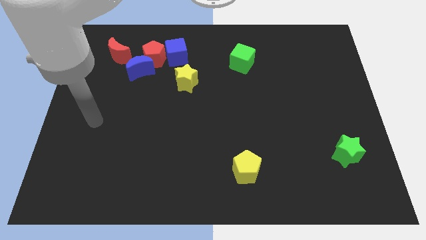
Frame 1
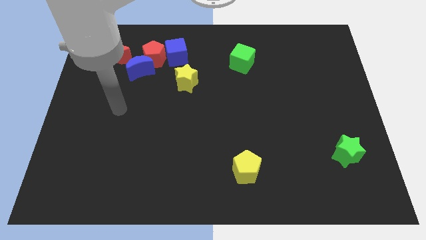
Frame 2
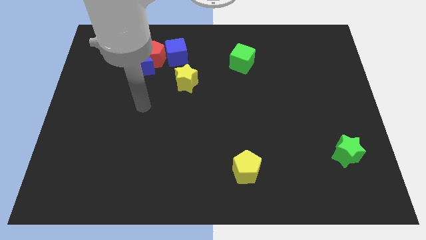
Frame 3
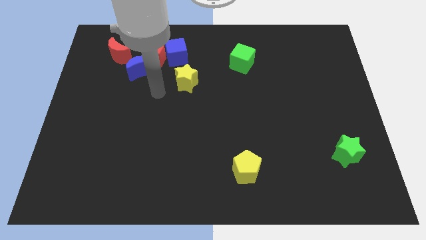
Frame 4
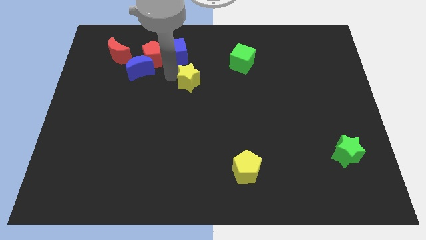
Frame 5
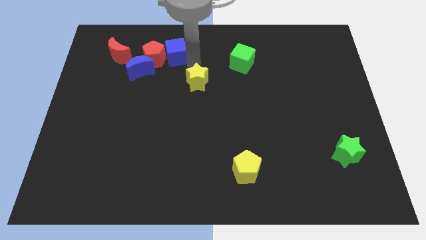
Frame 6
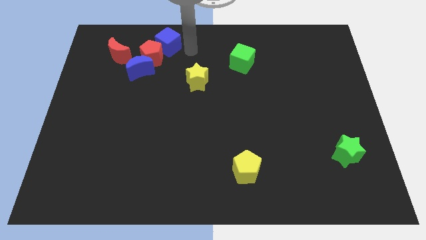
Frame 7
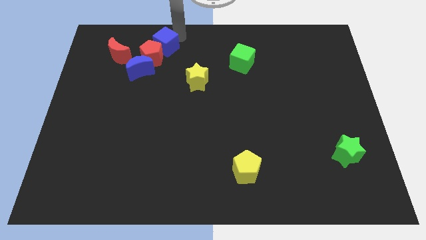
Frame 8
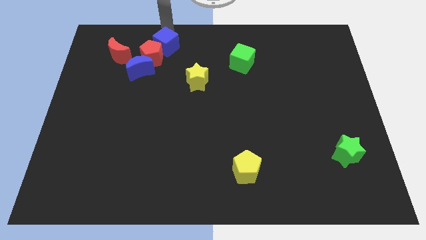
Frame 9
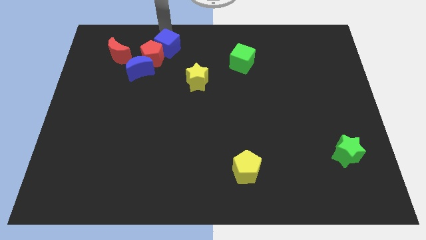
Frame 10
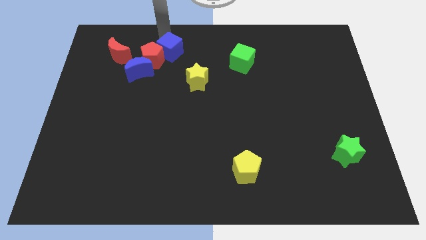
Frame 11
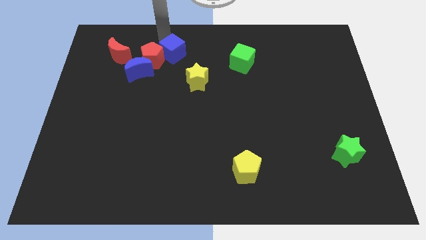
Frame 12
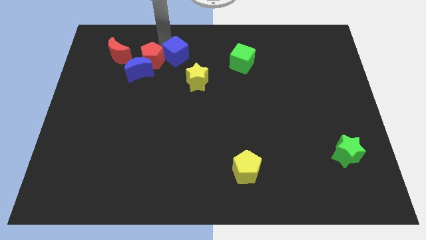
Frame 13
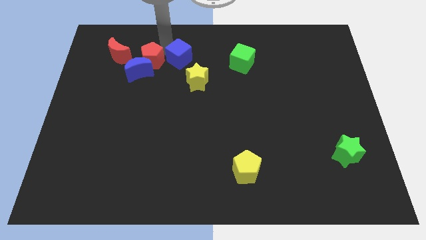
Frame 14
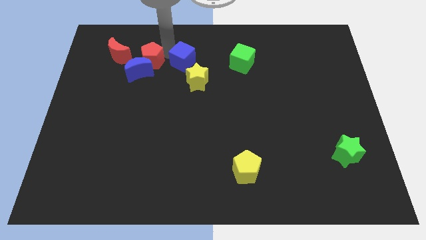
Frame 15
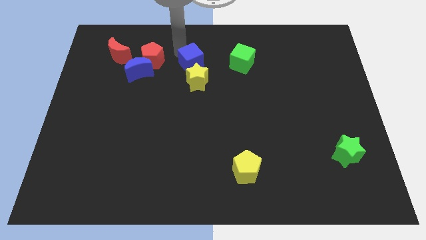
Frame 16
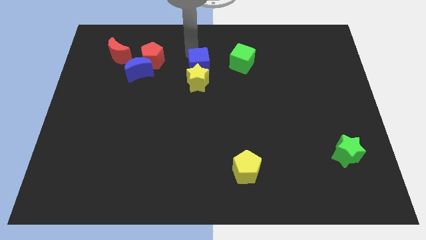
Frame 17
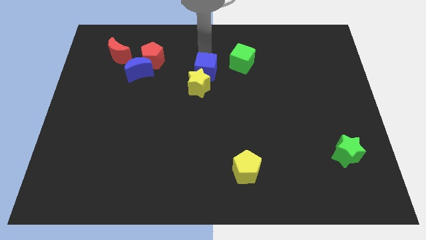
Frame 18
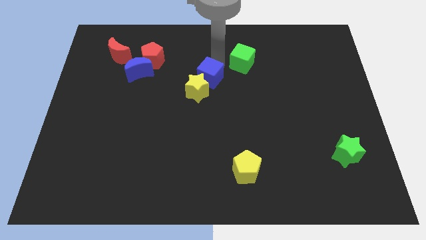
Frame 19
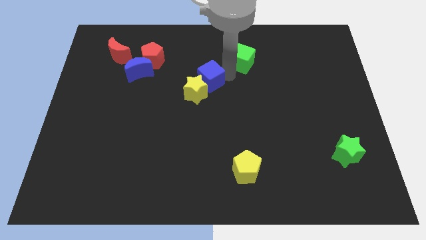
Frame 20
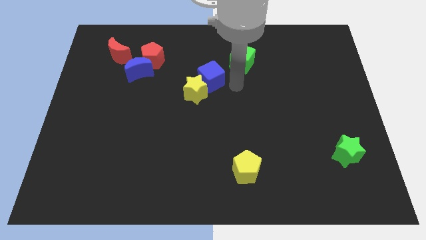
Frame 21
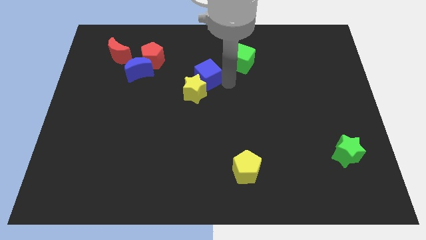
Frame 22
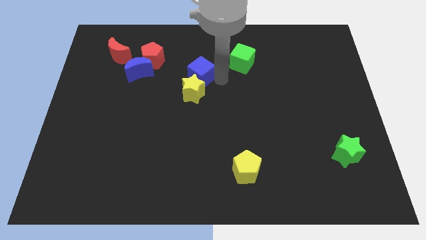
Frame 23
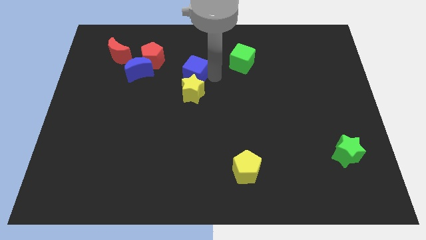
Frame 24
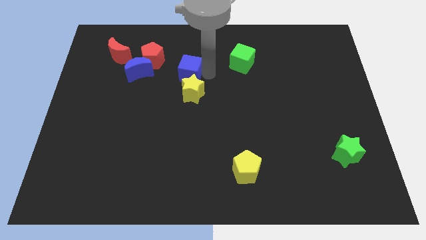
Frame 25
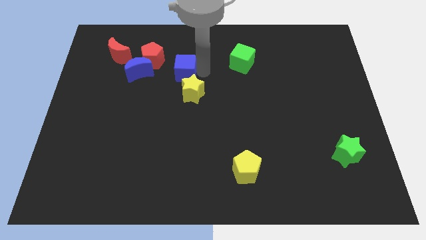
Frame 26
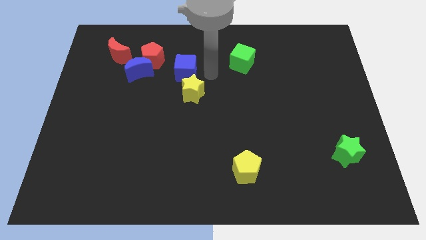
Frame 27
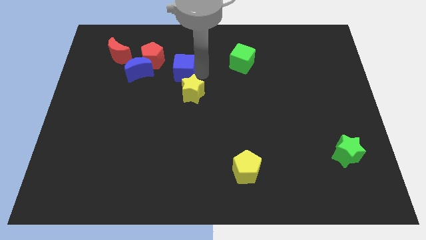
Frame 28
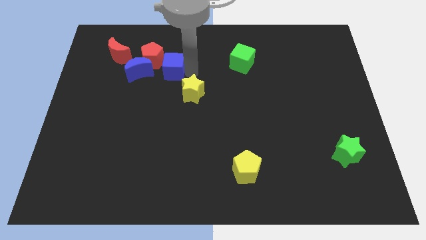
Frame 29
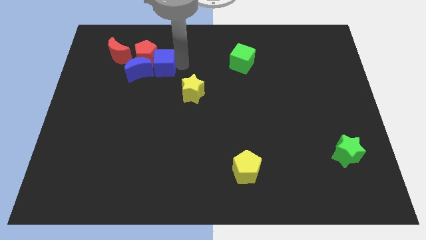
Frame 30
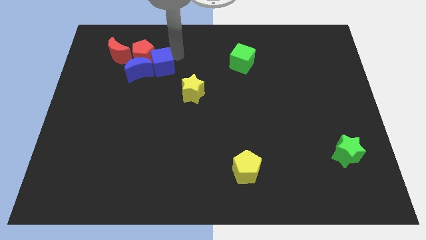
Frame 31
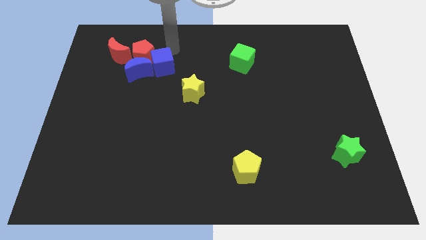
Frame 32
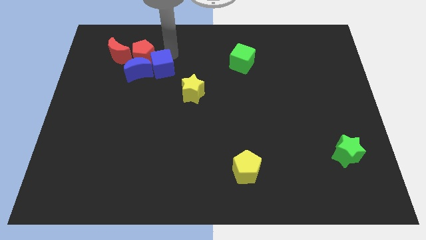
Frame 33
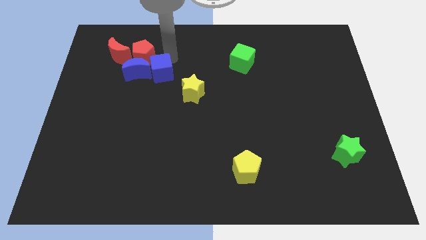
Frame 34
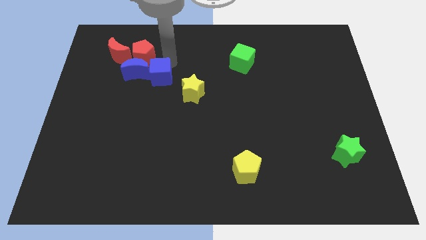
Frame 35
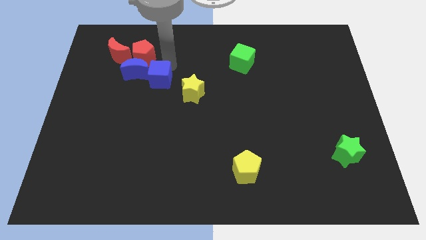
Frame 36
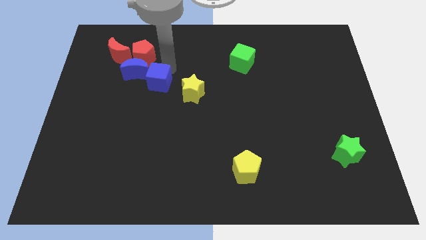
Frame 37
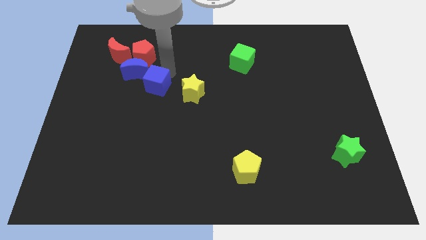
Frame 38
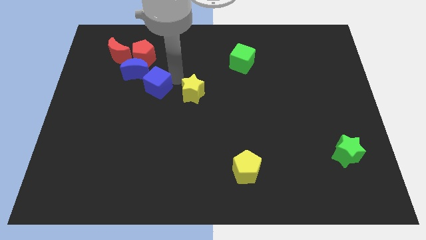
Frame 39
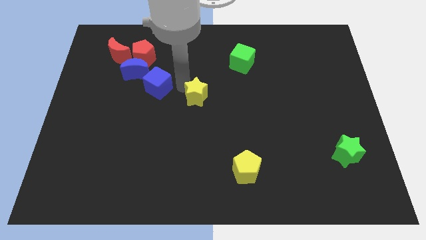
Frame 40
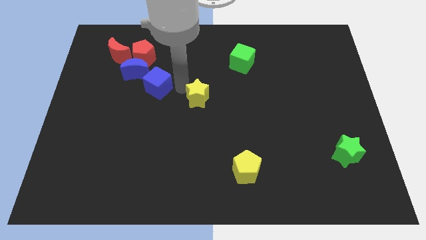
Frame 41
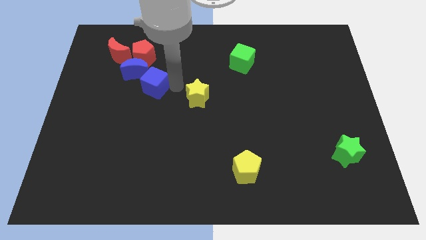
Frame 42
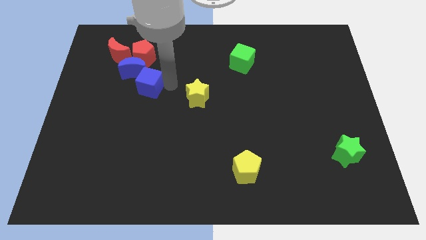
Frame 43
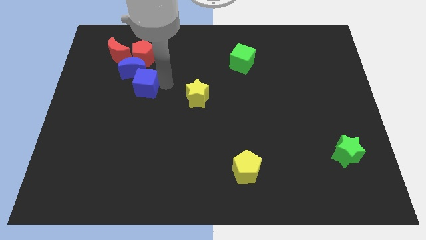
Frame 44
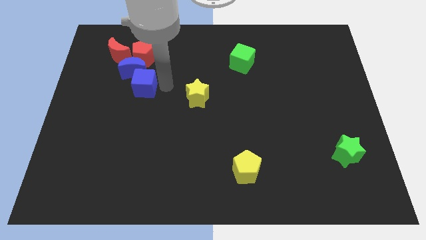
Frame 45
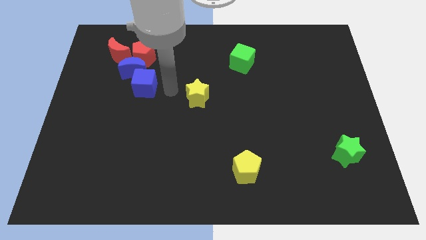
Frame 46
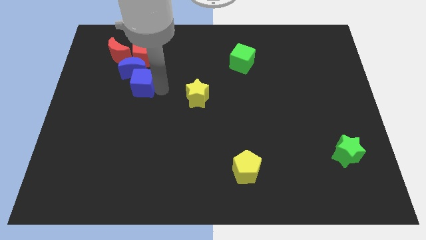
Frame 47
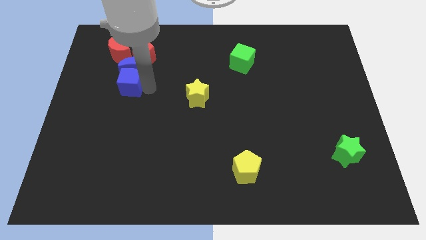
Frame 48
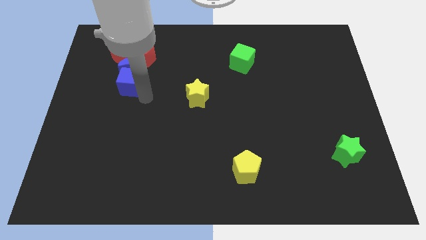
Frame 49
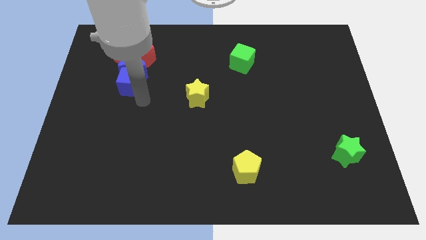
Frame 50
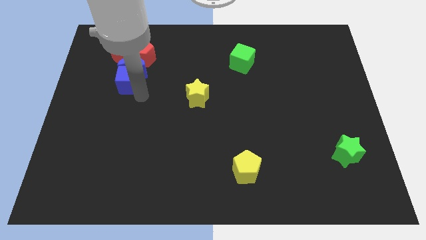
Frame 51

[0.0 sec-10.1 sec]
move the blue cube to the bottom left of the red pentagon

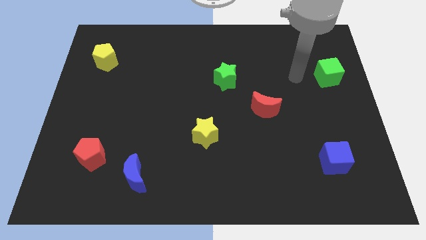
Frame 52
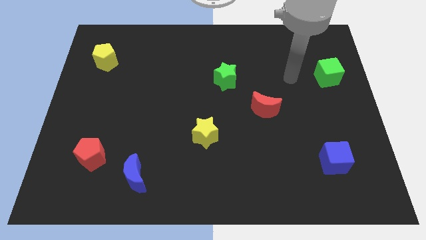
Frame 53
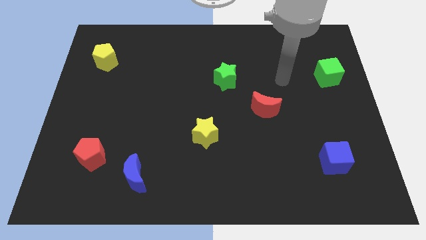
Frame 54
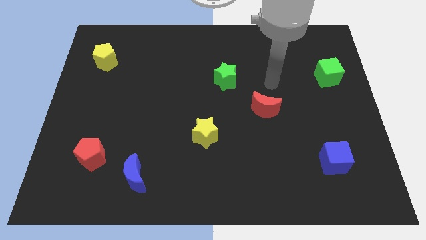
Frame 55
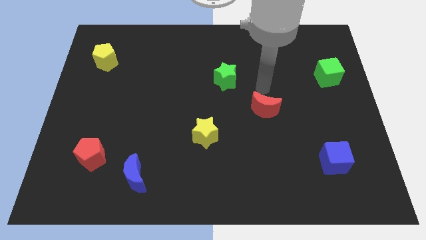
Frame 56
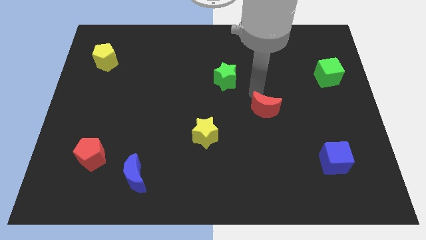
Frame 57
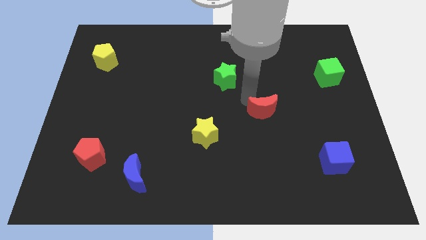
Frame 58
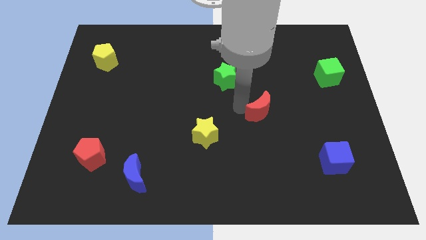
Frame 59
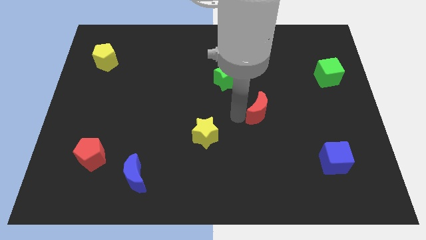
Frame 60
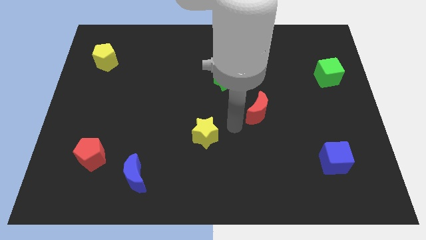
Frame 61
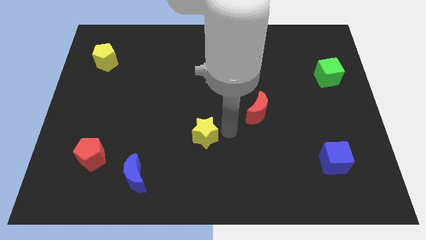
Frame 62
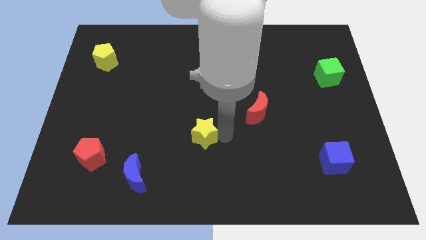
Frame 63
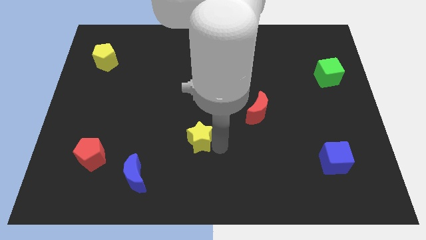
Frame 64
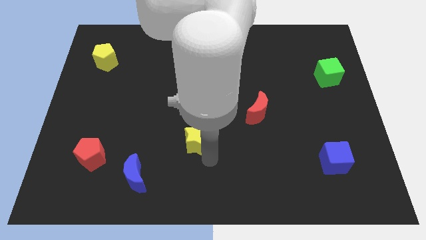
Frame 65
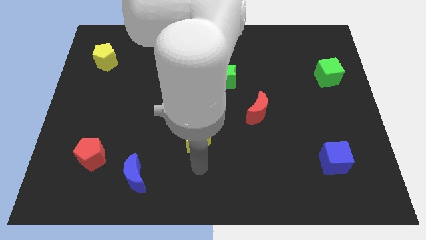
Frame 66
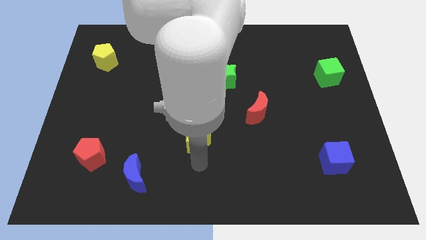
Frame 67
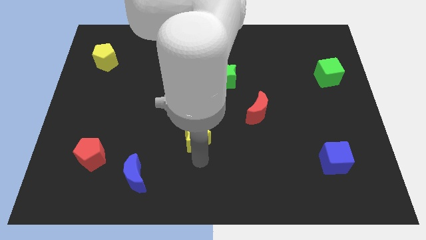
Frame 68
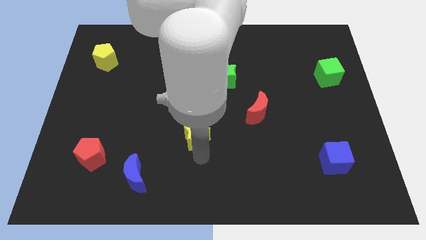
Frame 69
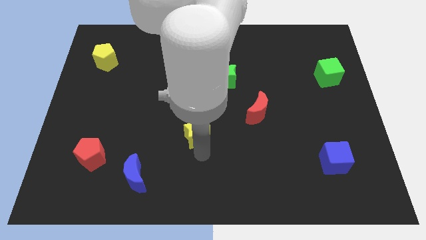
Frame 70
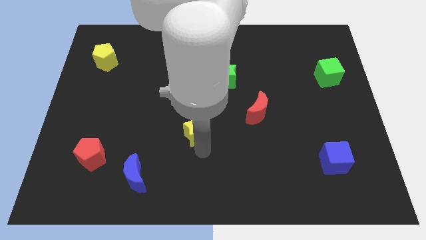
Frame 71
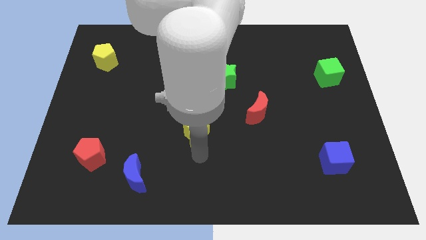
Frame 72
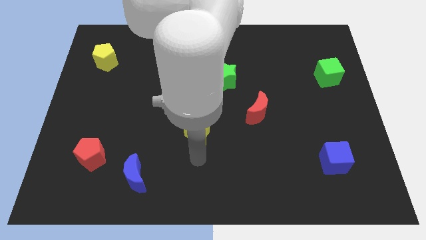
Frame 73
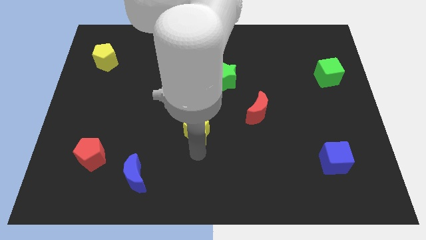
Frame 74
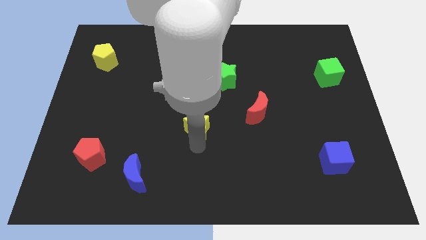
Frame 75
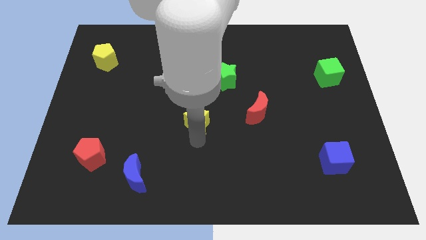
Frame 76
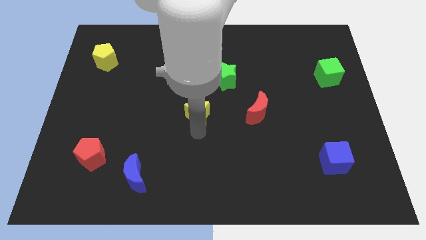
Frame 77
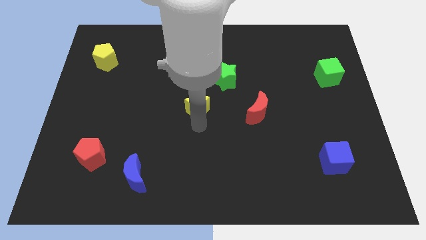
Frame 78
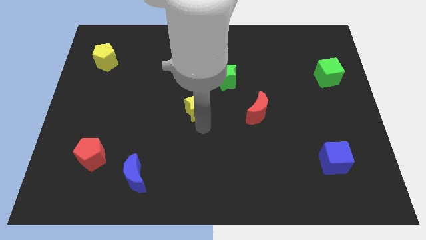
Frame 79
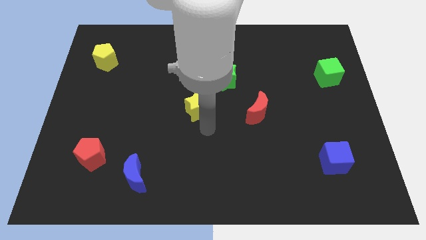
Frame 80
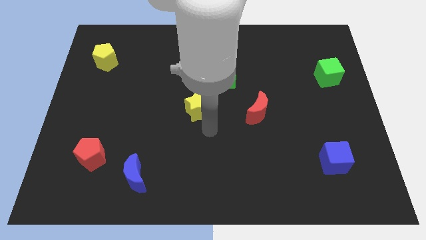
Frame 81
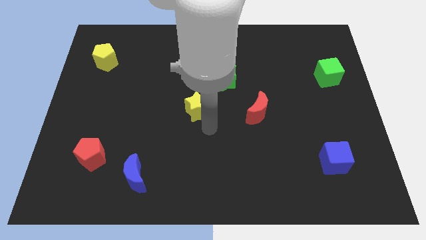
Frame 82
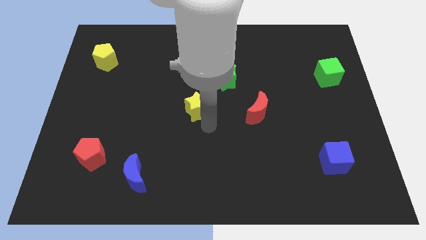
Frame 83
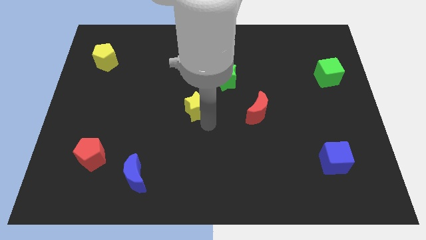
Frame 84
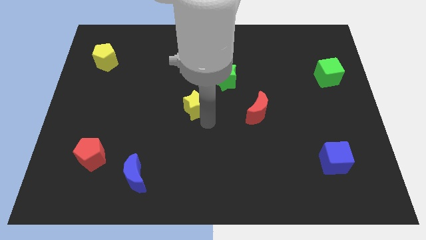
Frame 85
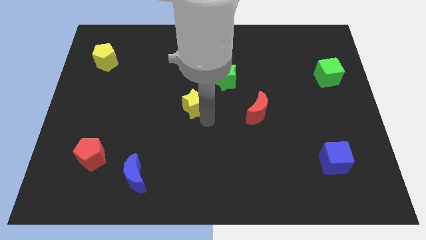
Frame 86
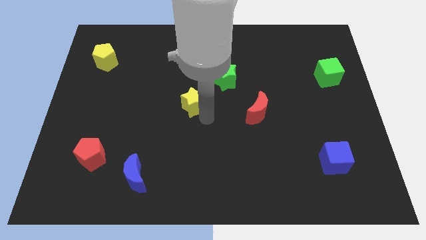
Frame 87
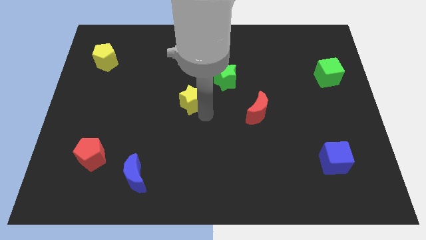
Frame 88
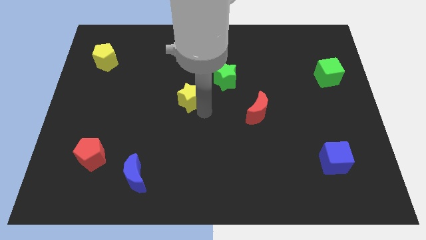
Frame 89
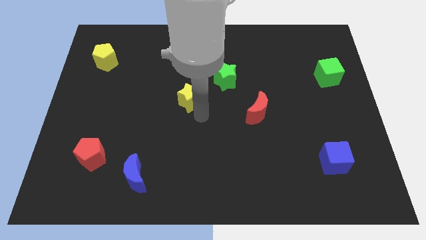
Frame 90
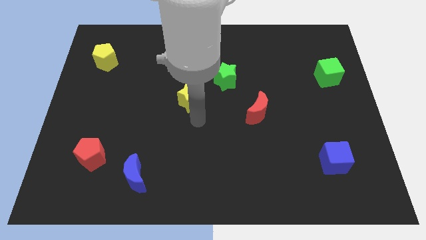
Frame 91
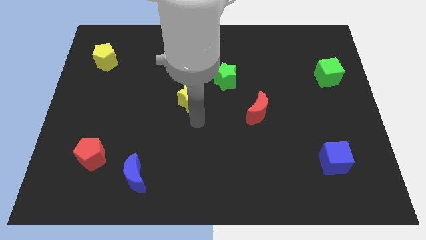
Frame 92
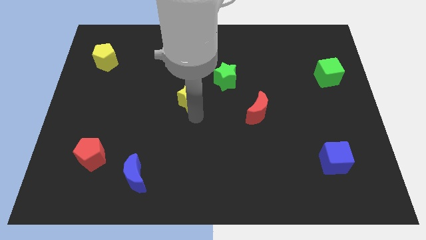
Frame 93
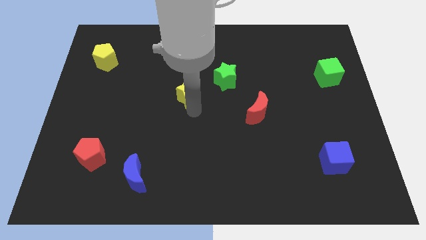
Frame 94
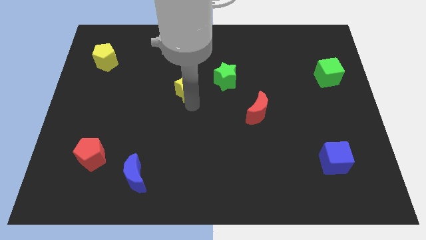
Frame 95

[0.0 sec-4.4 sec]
push the yellow star to the left side of the green star
